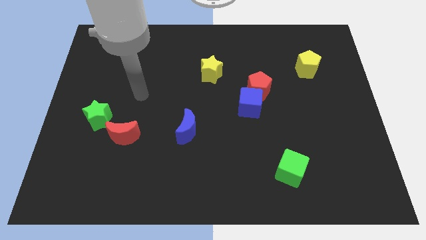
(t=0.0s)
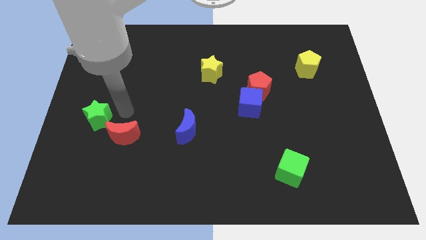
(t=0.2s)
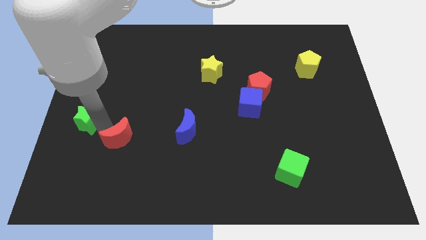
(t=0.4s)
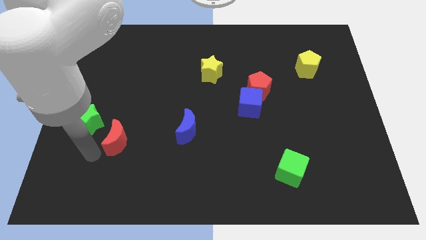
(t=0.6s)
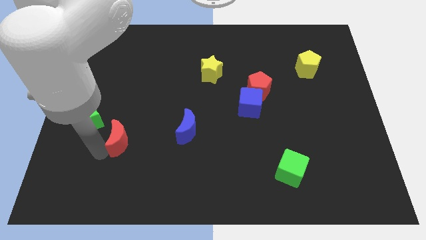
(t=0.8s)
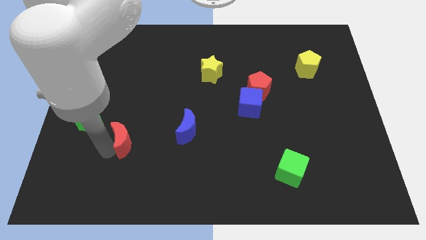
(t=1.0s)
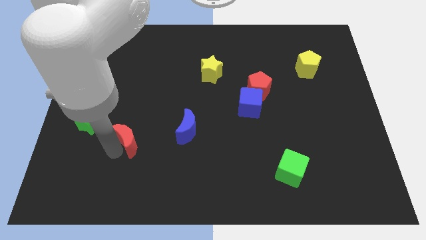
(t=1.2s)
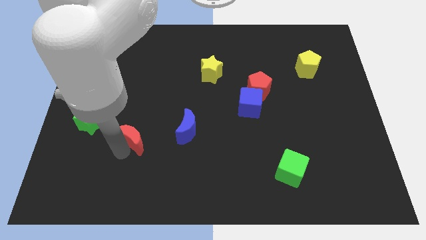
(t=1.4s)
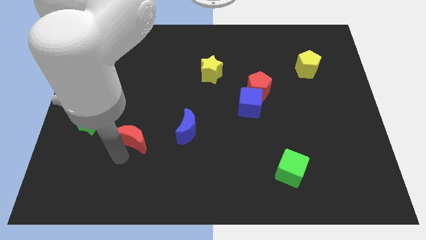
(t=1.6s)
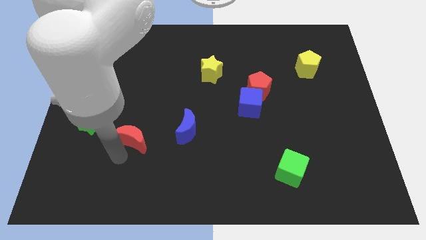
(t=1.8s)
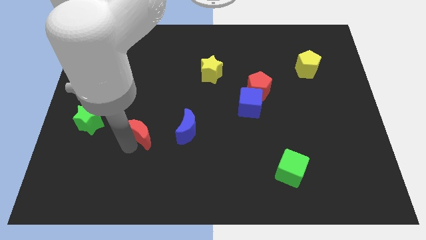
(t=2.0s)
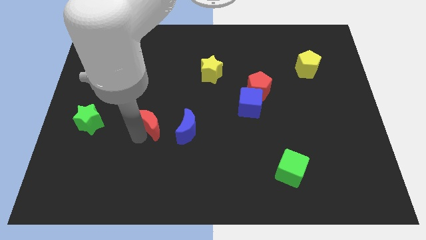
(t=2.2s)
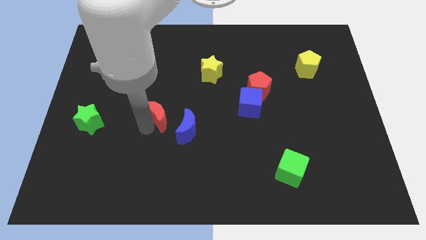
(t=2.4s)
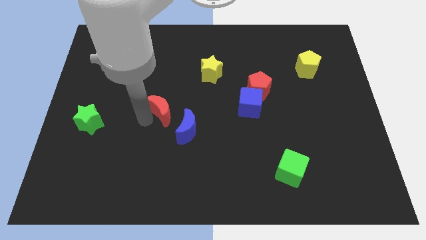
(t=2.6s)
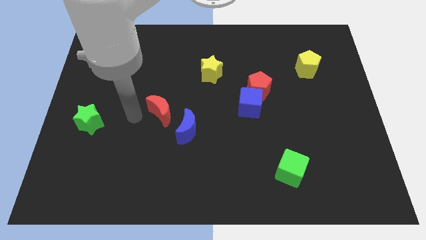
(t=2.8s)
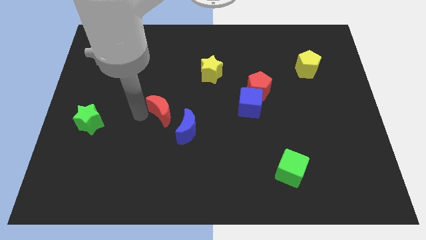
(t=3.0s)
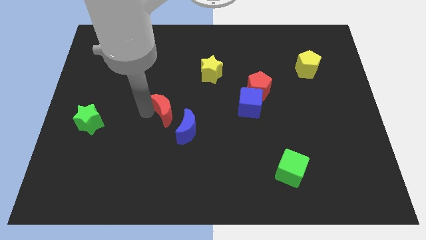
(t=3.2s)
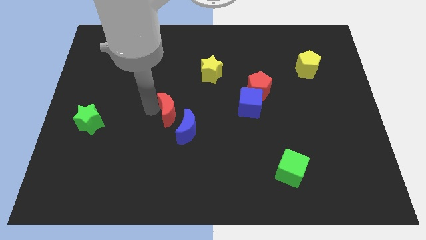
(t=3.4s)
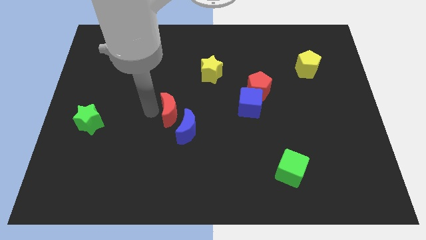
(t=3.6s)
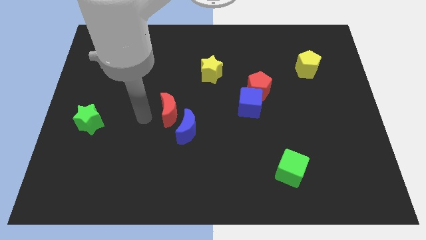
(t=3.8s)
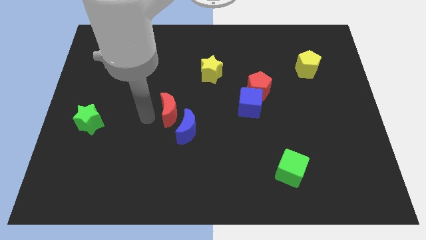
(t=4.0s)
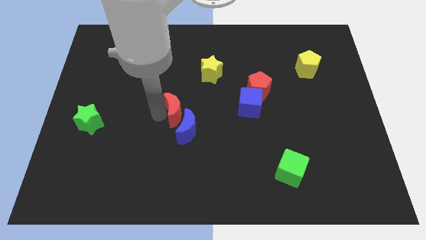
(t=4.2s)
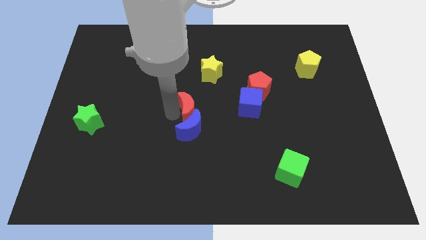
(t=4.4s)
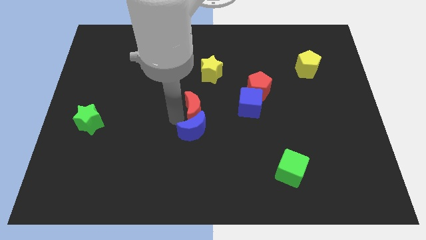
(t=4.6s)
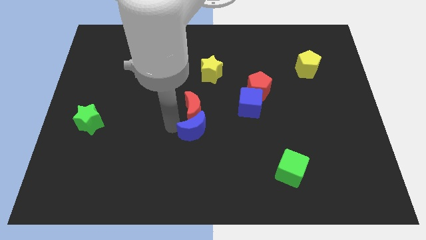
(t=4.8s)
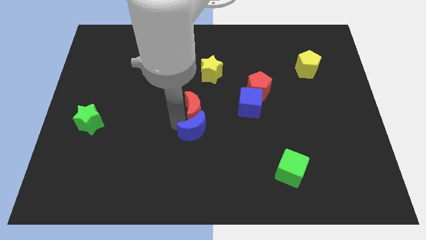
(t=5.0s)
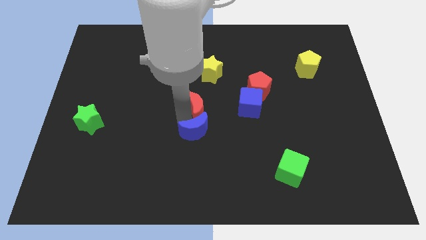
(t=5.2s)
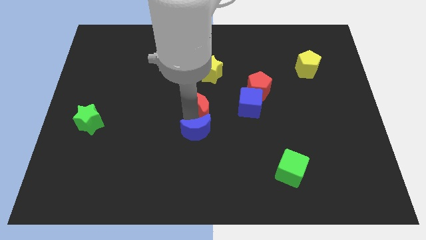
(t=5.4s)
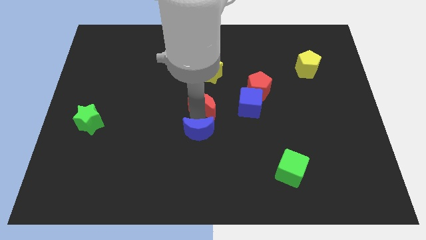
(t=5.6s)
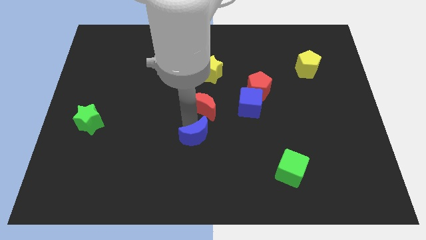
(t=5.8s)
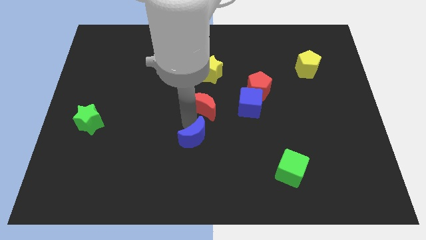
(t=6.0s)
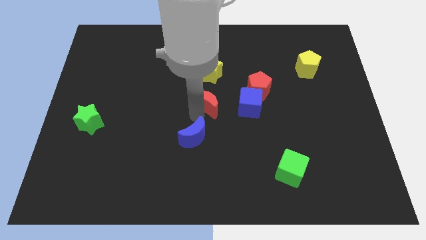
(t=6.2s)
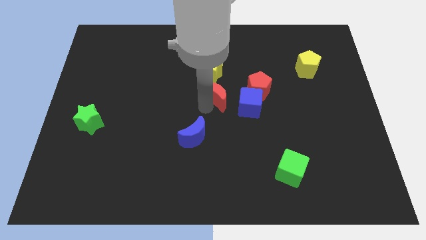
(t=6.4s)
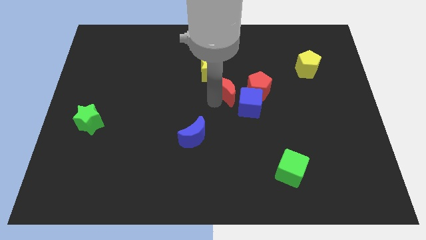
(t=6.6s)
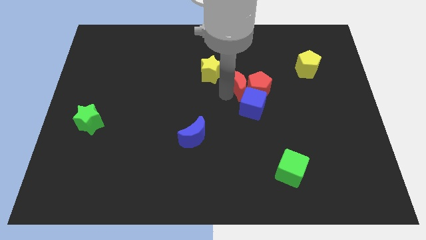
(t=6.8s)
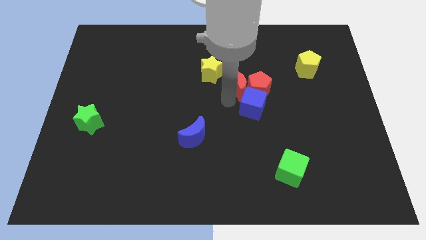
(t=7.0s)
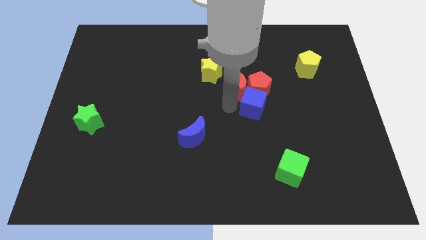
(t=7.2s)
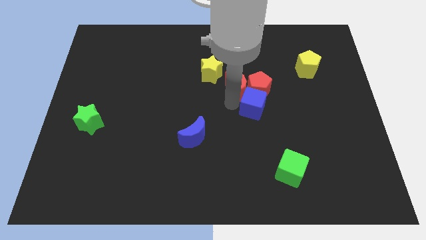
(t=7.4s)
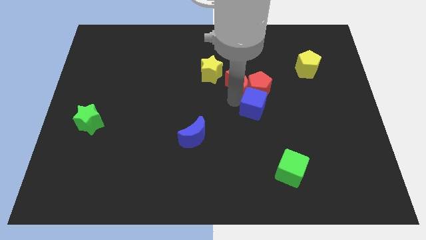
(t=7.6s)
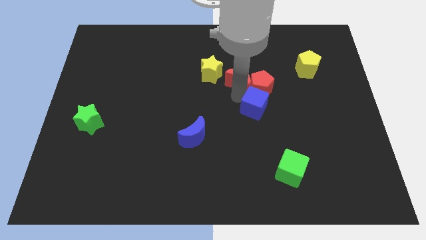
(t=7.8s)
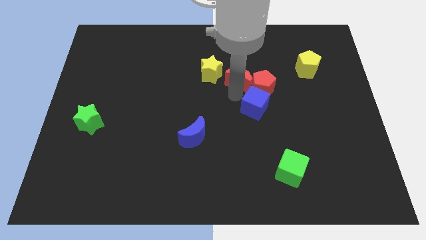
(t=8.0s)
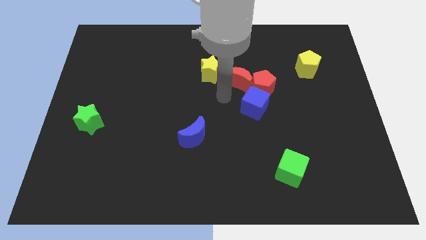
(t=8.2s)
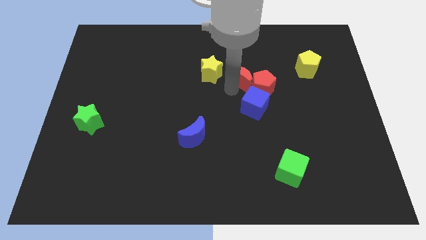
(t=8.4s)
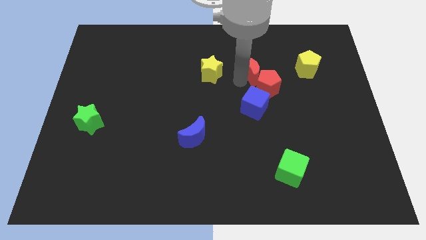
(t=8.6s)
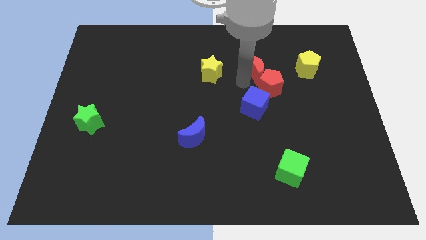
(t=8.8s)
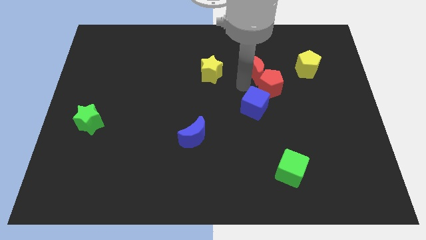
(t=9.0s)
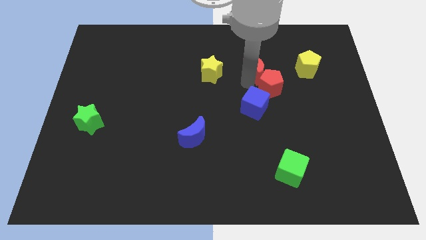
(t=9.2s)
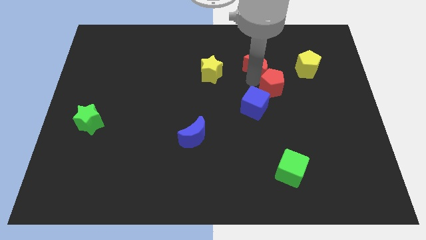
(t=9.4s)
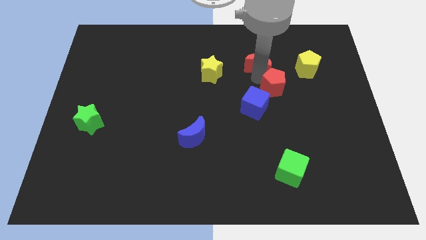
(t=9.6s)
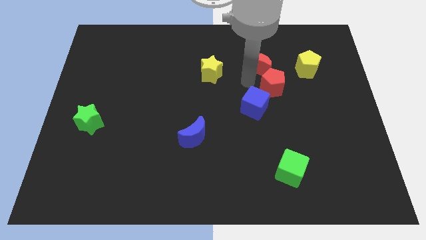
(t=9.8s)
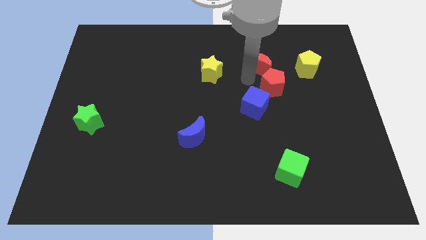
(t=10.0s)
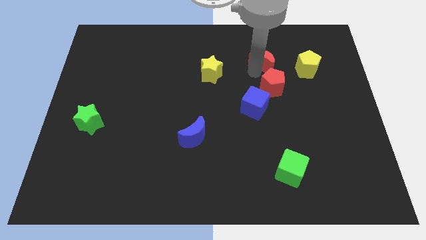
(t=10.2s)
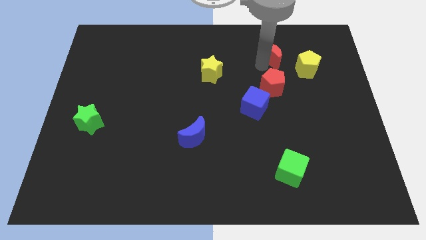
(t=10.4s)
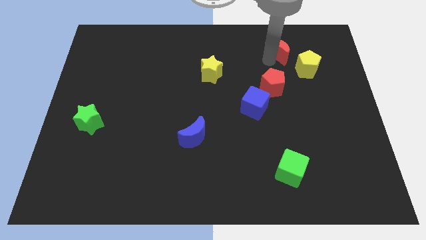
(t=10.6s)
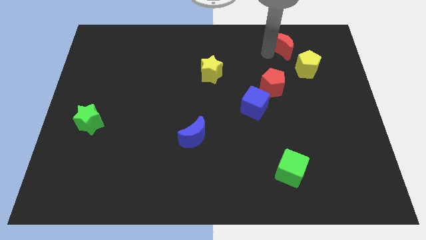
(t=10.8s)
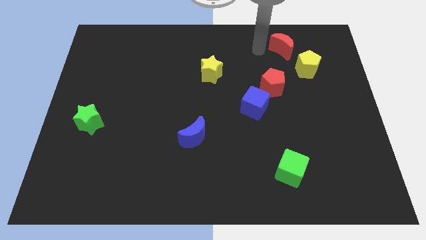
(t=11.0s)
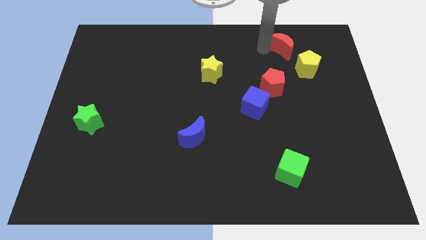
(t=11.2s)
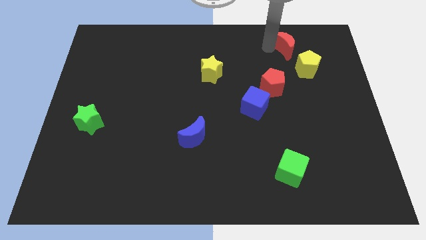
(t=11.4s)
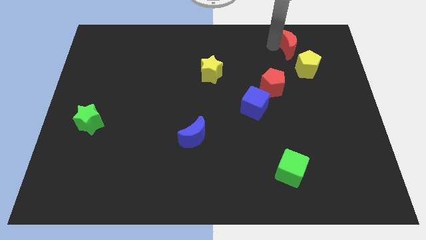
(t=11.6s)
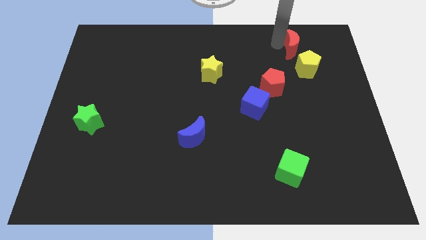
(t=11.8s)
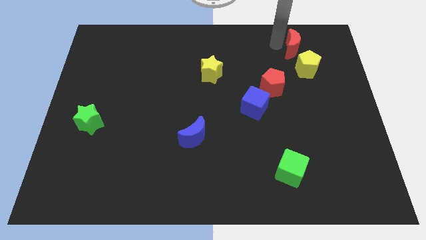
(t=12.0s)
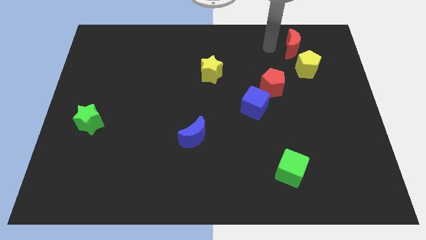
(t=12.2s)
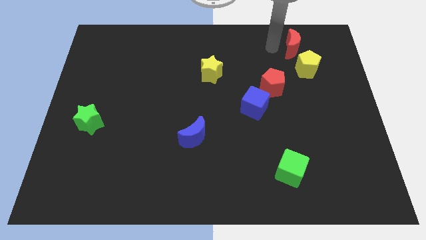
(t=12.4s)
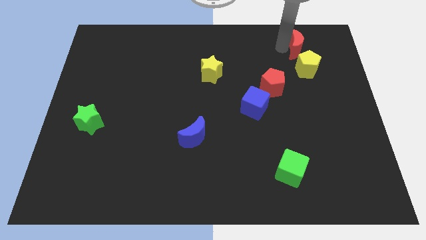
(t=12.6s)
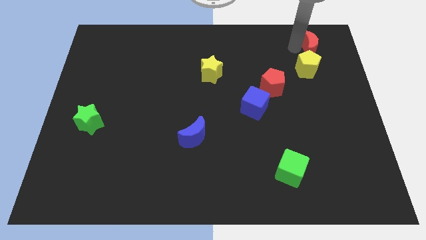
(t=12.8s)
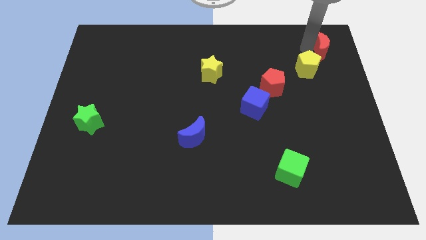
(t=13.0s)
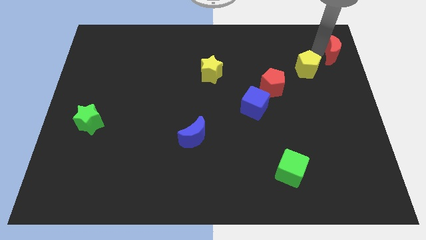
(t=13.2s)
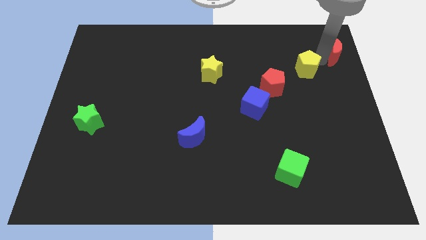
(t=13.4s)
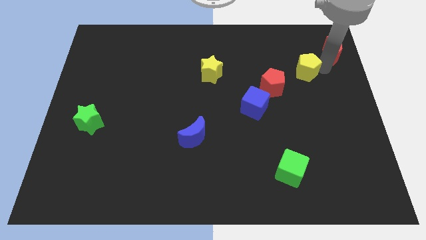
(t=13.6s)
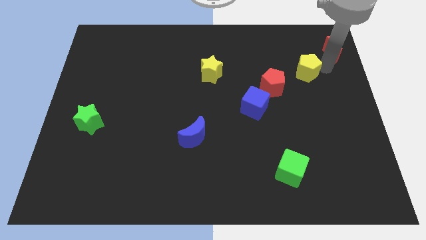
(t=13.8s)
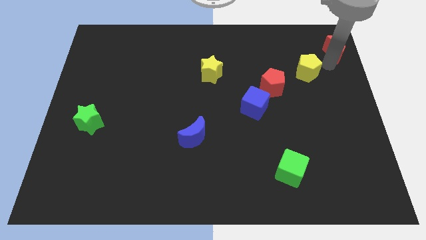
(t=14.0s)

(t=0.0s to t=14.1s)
move the red moon to the top right corner
